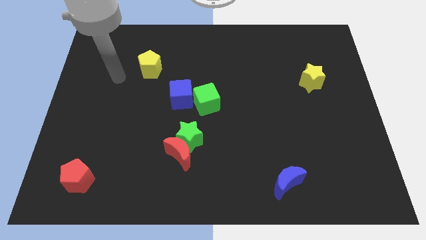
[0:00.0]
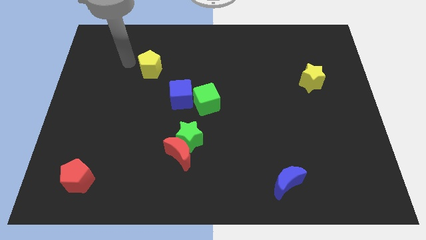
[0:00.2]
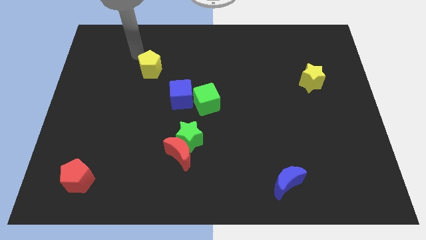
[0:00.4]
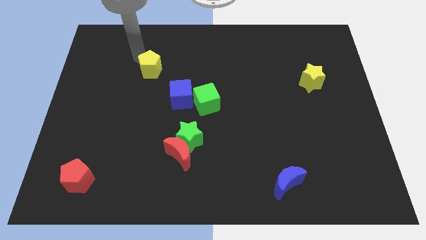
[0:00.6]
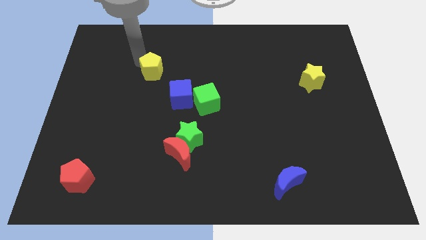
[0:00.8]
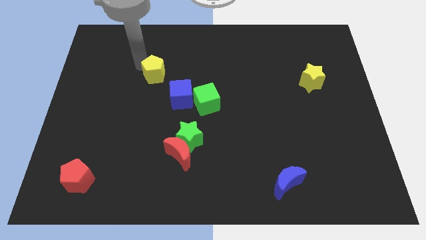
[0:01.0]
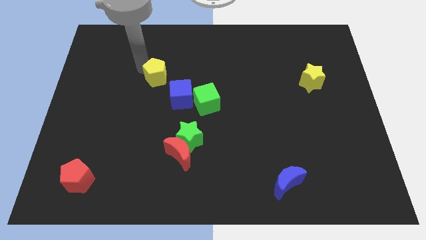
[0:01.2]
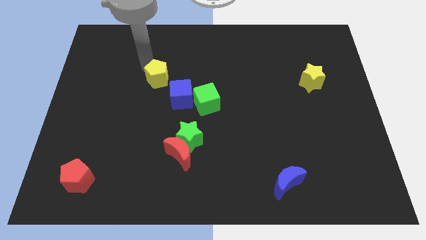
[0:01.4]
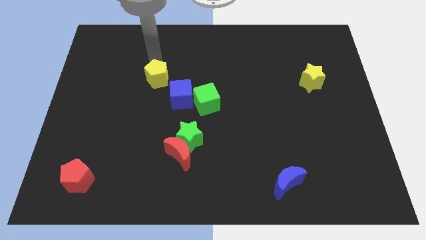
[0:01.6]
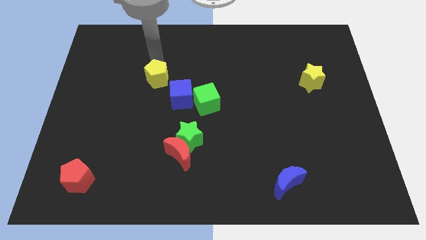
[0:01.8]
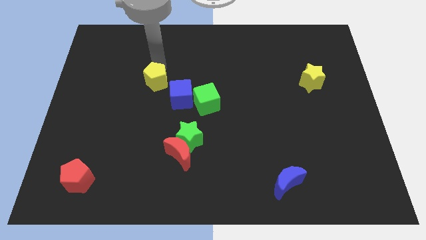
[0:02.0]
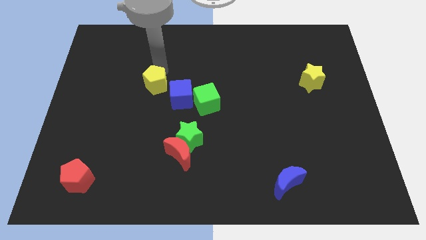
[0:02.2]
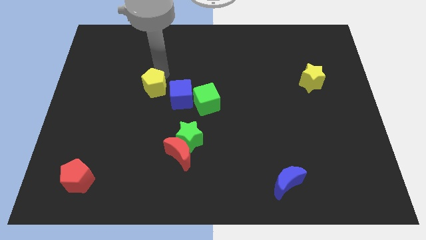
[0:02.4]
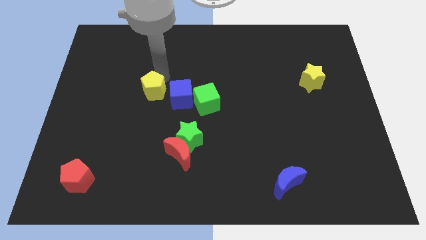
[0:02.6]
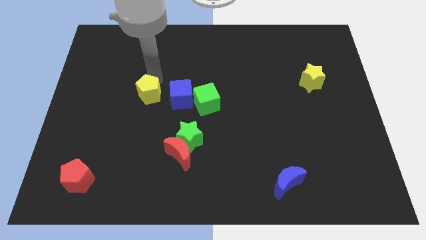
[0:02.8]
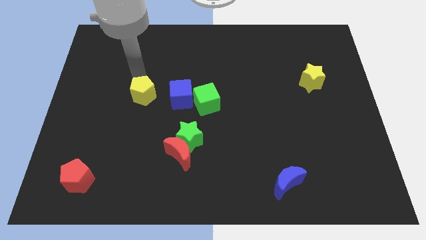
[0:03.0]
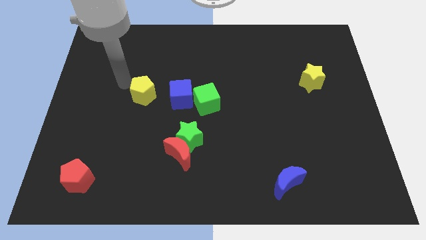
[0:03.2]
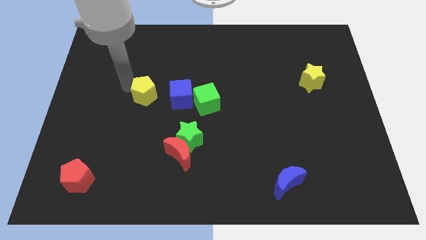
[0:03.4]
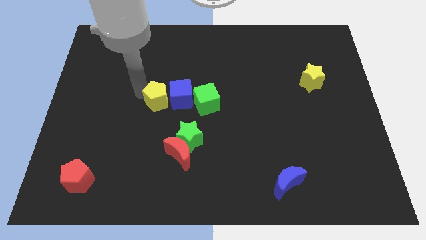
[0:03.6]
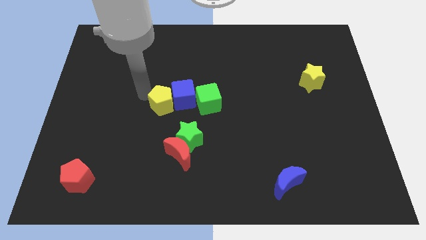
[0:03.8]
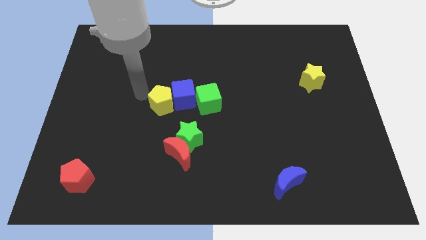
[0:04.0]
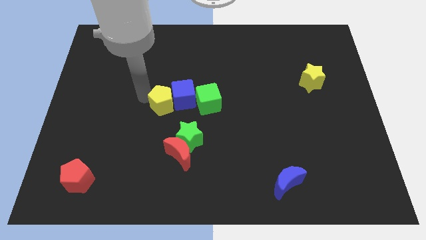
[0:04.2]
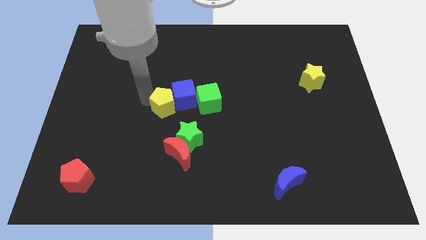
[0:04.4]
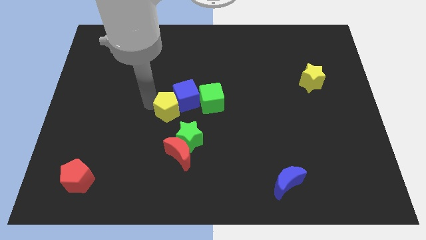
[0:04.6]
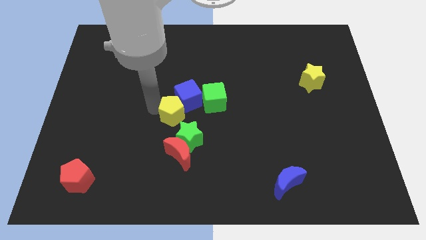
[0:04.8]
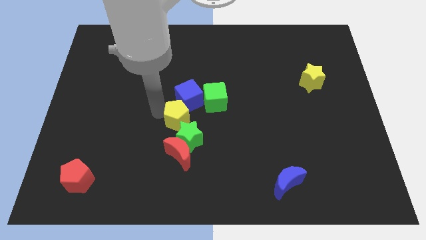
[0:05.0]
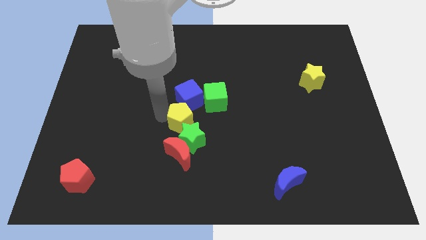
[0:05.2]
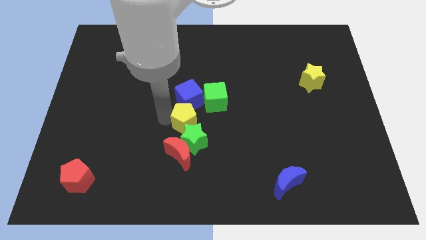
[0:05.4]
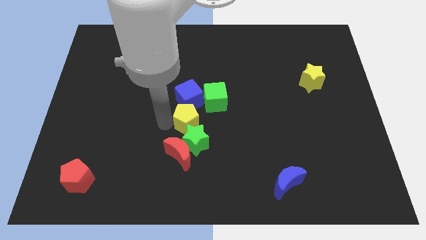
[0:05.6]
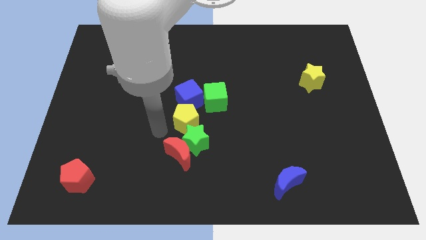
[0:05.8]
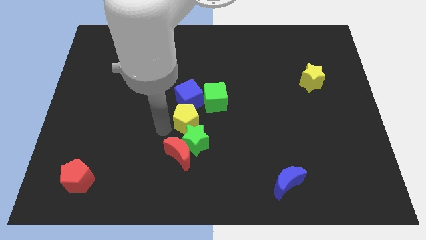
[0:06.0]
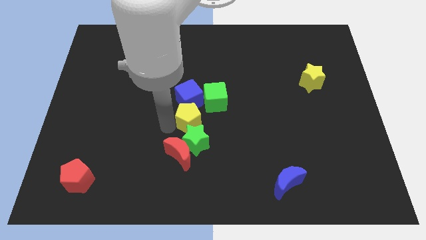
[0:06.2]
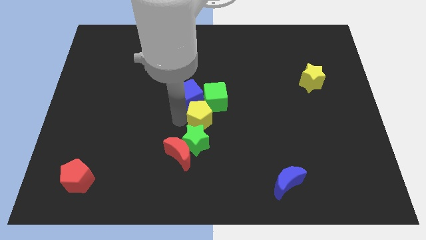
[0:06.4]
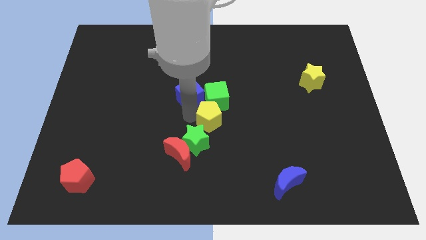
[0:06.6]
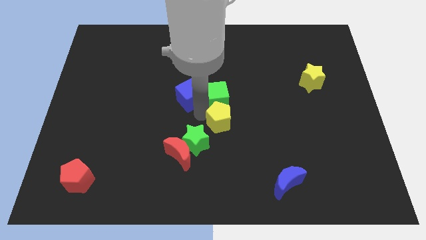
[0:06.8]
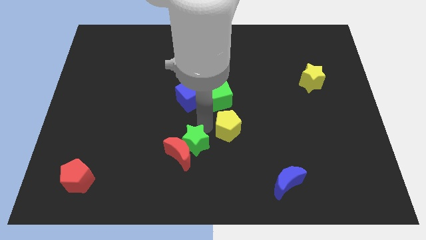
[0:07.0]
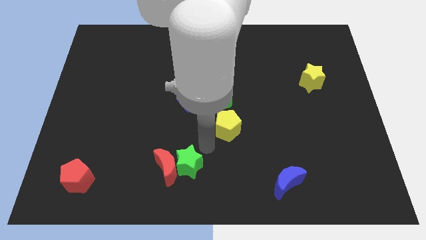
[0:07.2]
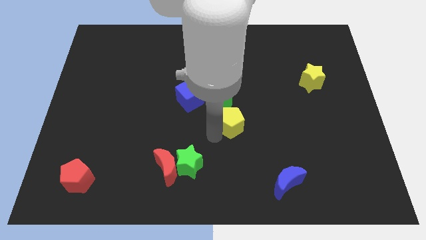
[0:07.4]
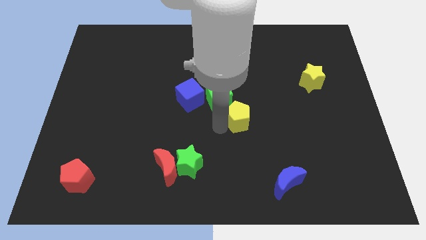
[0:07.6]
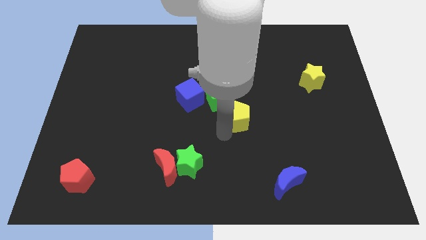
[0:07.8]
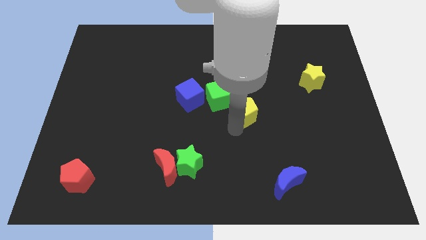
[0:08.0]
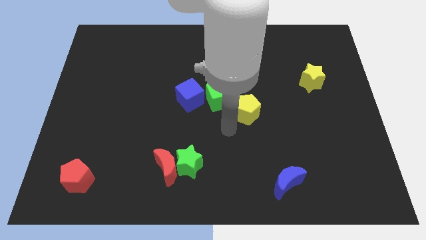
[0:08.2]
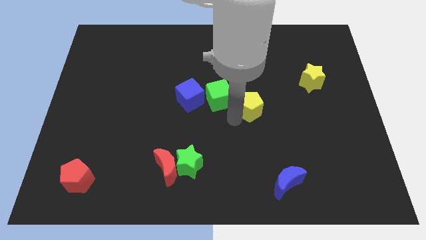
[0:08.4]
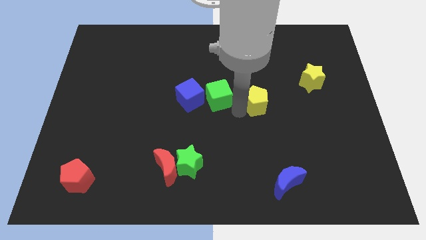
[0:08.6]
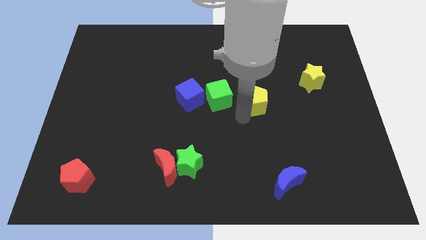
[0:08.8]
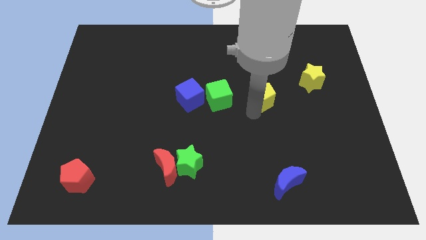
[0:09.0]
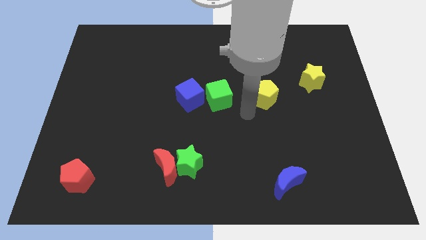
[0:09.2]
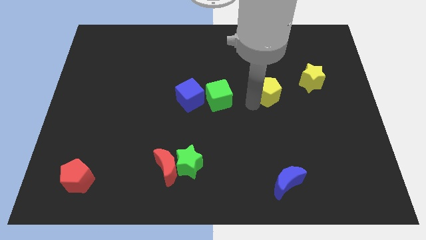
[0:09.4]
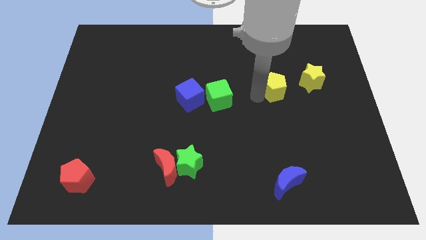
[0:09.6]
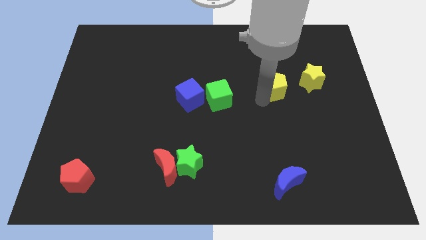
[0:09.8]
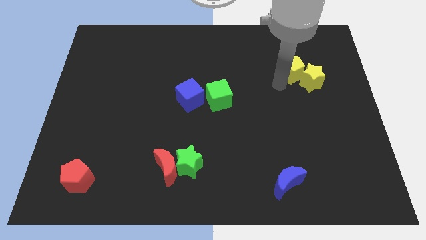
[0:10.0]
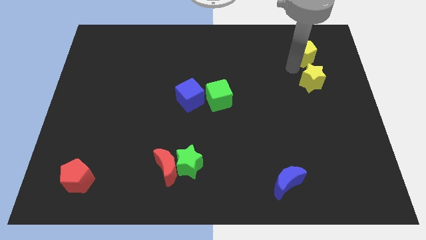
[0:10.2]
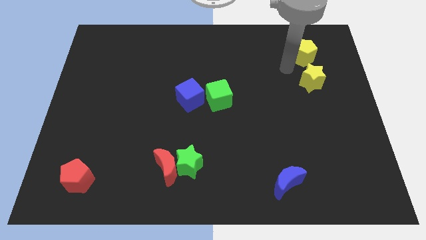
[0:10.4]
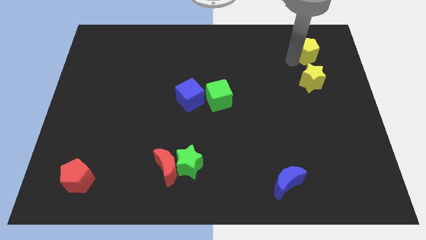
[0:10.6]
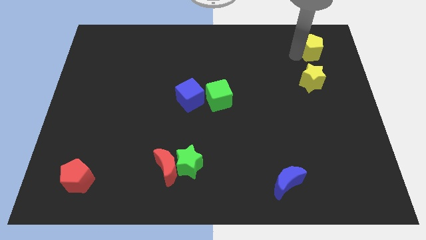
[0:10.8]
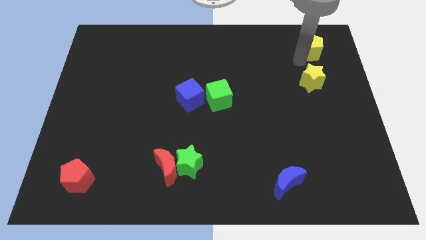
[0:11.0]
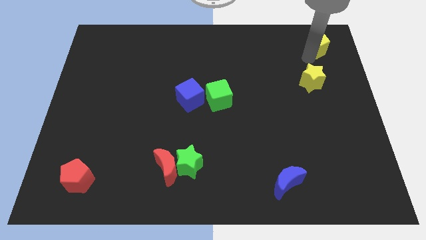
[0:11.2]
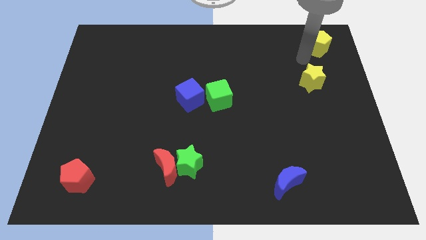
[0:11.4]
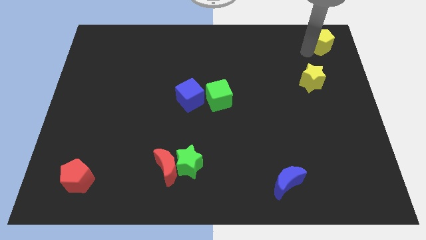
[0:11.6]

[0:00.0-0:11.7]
move the yellow pentagon to the top right of the board

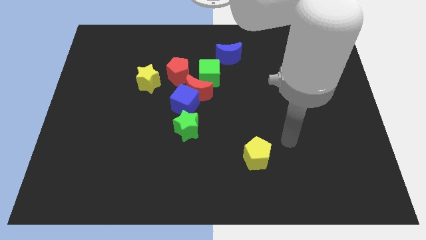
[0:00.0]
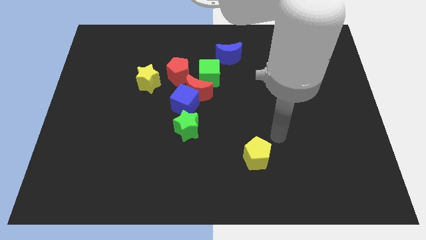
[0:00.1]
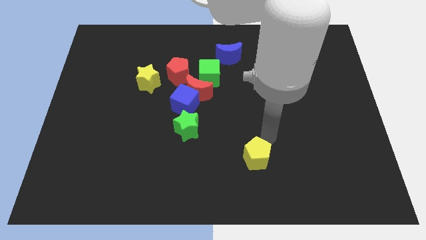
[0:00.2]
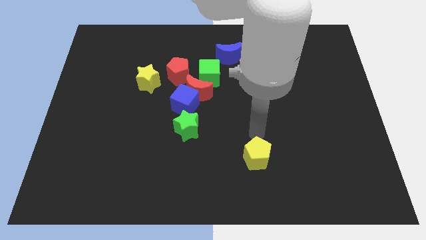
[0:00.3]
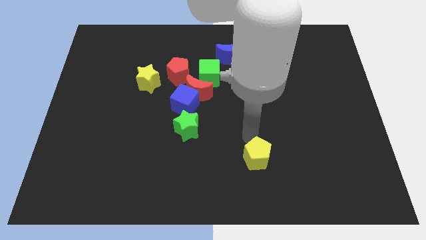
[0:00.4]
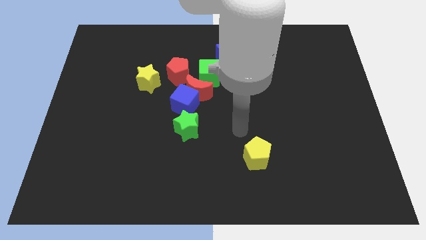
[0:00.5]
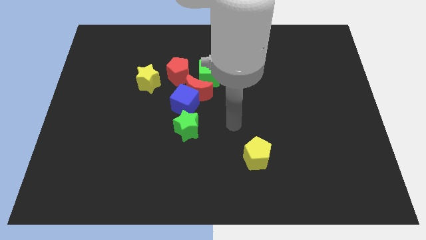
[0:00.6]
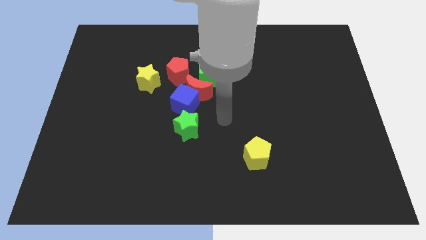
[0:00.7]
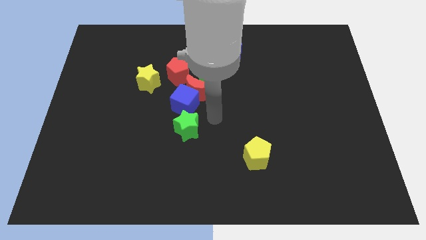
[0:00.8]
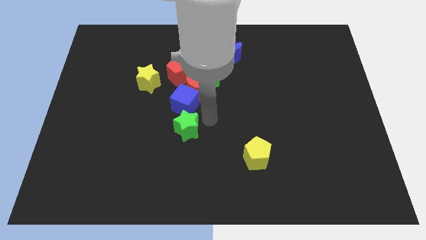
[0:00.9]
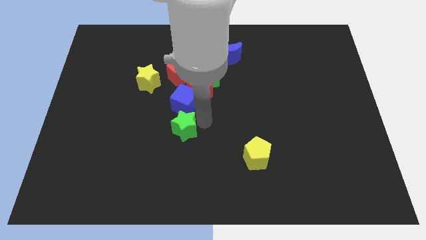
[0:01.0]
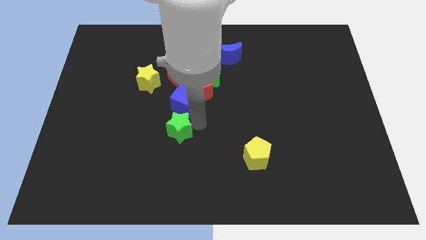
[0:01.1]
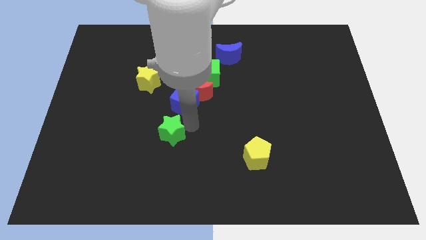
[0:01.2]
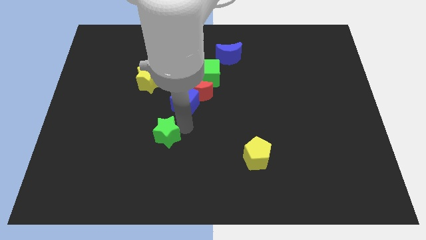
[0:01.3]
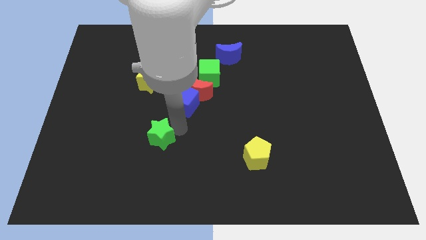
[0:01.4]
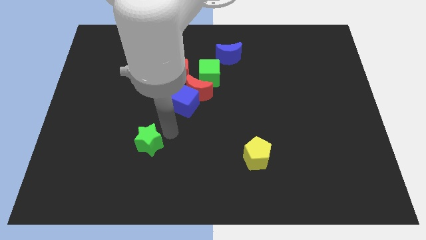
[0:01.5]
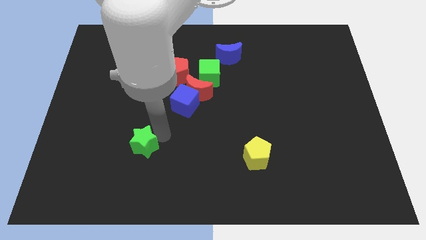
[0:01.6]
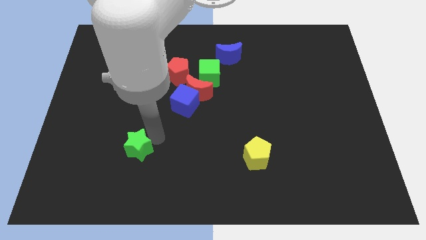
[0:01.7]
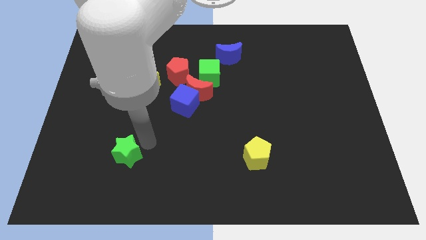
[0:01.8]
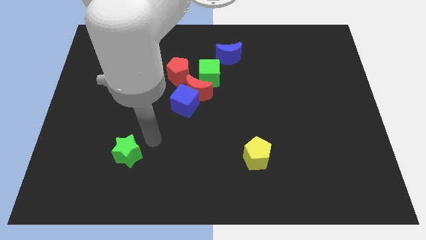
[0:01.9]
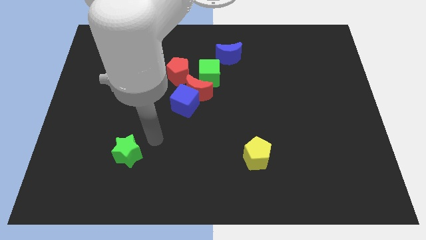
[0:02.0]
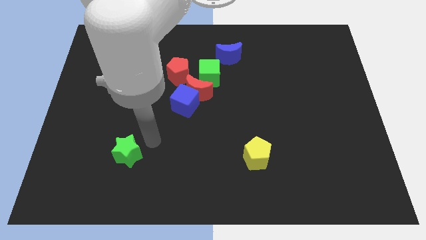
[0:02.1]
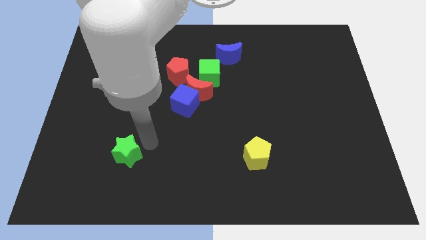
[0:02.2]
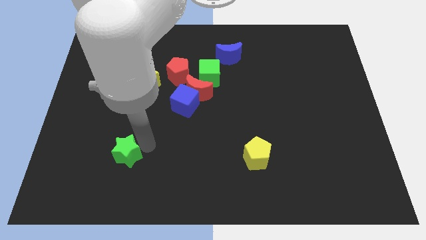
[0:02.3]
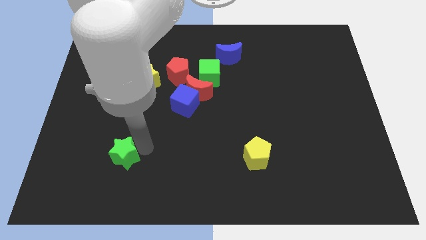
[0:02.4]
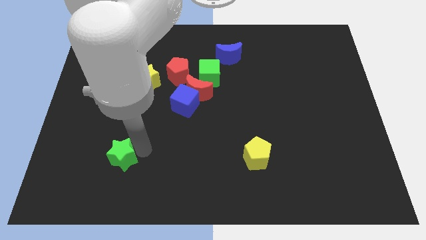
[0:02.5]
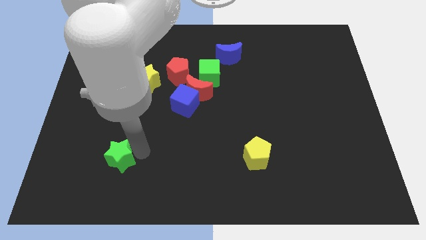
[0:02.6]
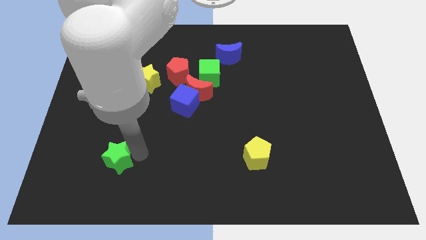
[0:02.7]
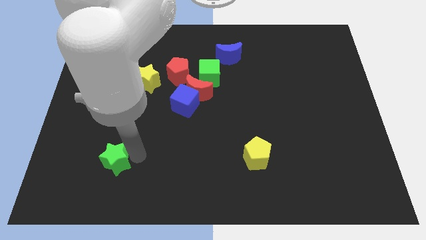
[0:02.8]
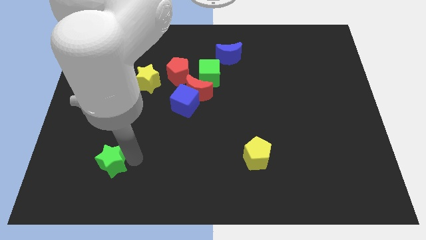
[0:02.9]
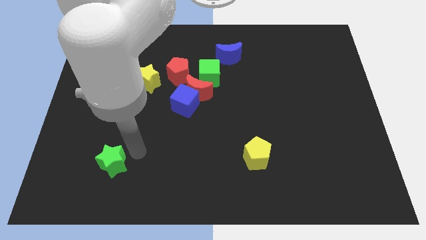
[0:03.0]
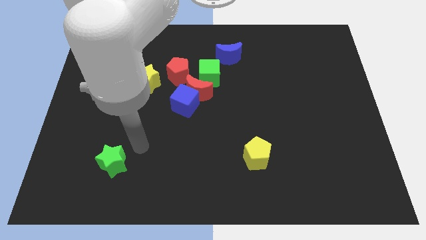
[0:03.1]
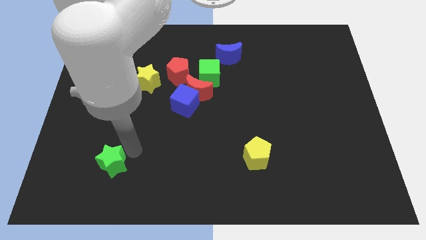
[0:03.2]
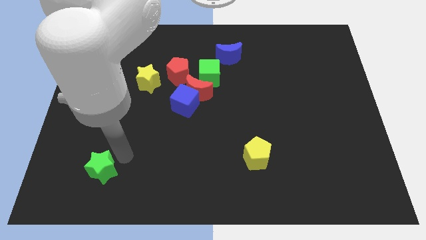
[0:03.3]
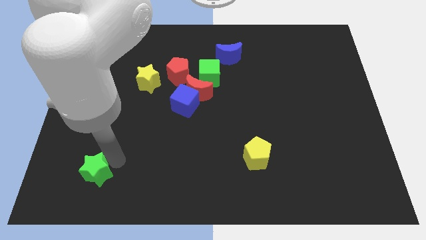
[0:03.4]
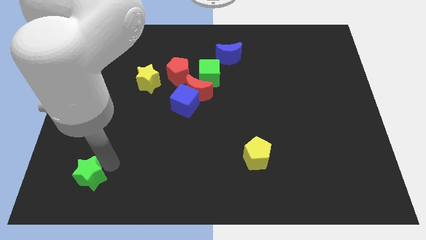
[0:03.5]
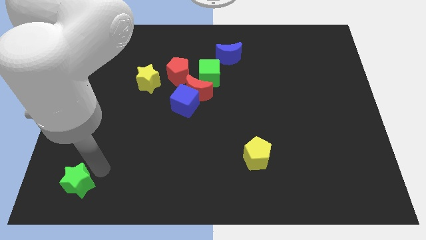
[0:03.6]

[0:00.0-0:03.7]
slide the green star to the bottom left corner
